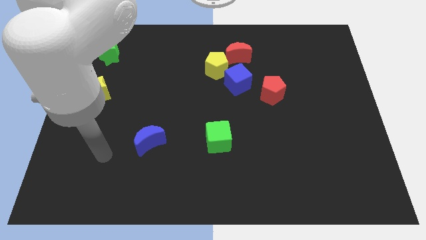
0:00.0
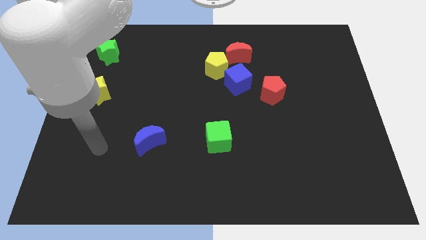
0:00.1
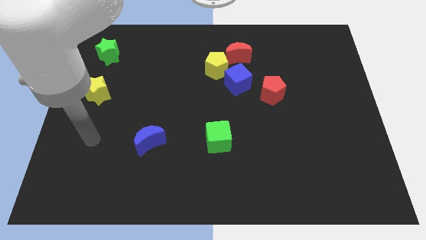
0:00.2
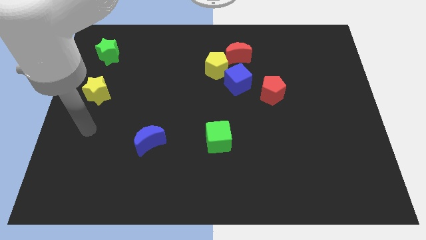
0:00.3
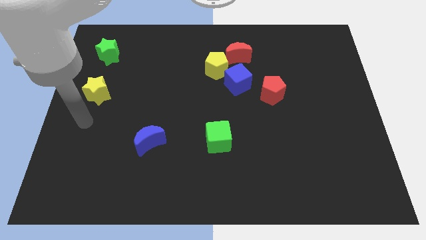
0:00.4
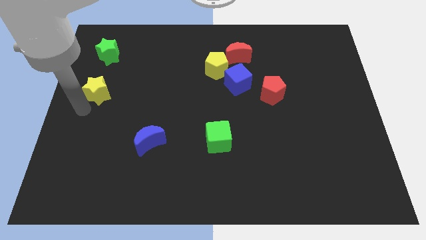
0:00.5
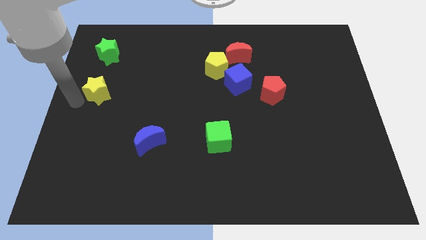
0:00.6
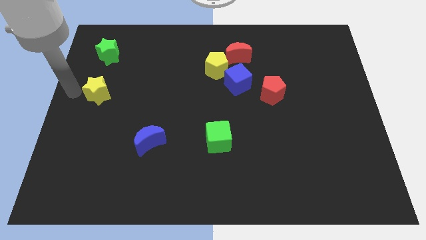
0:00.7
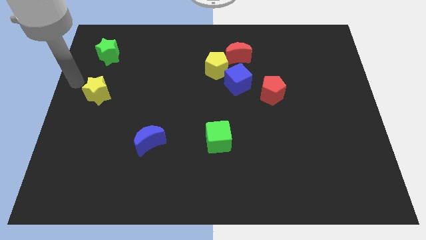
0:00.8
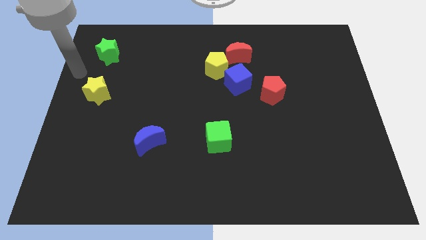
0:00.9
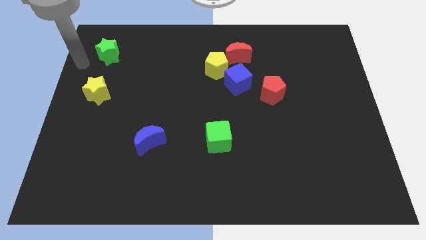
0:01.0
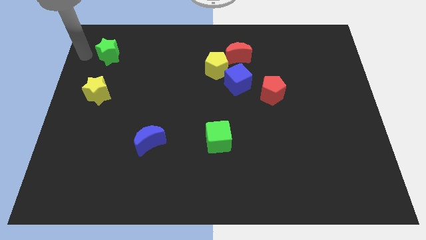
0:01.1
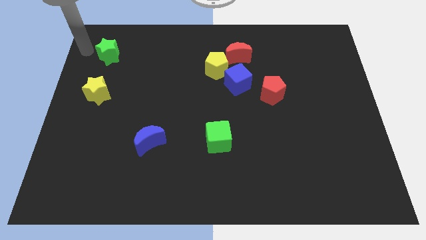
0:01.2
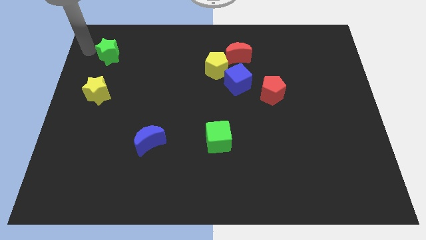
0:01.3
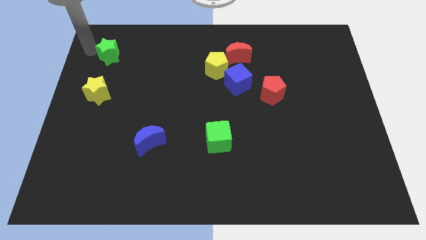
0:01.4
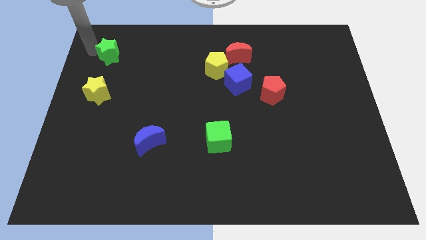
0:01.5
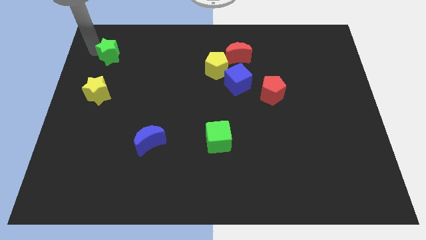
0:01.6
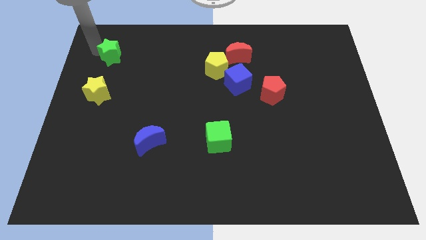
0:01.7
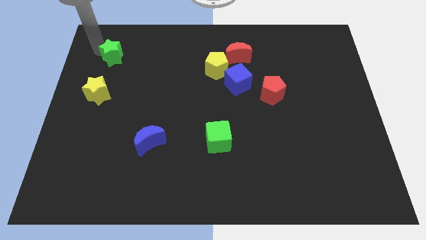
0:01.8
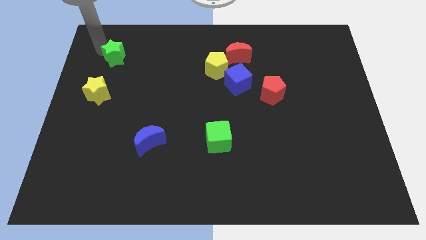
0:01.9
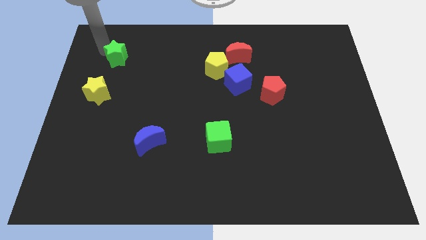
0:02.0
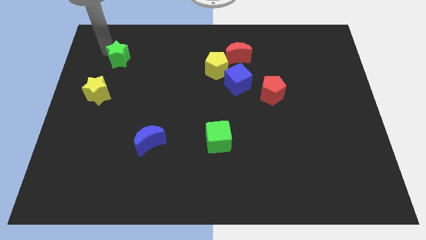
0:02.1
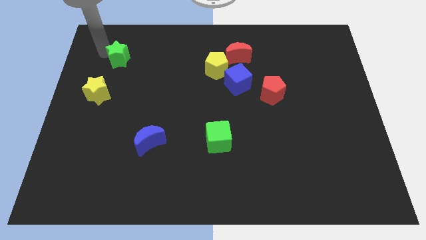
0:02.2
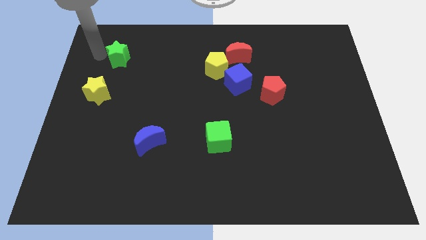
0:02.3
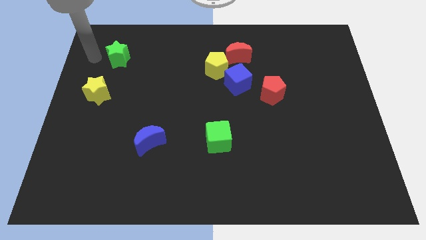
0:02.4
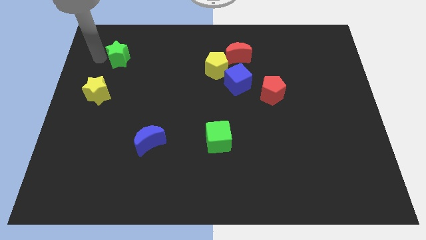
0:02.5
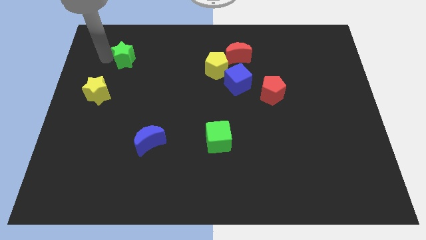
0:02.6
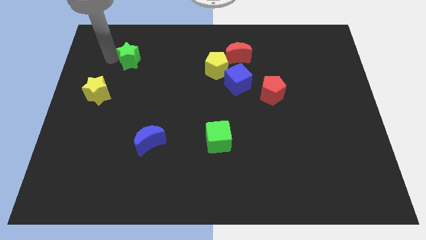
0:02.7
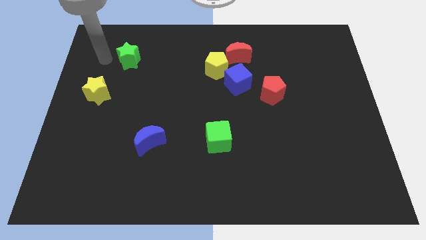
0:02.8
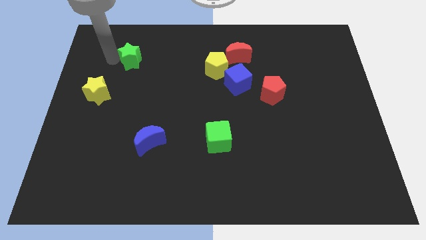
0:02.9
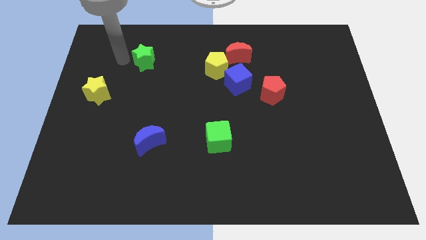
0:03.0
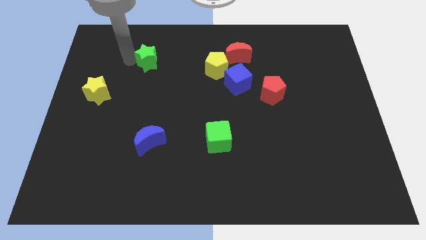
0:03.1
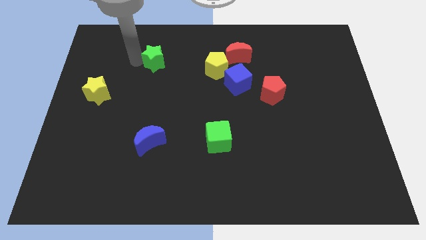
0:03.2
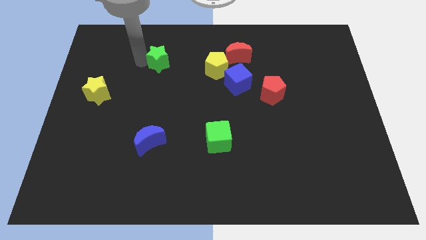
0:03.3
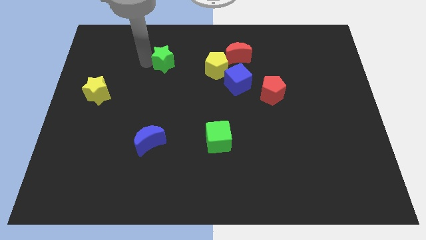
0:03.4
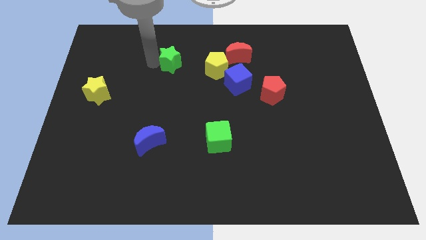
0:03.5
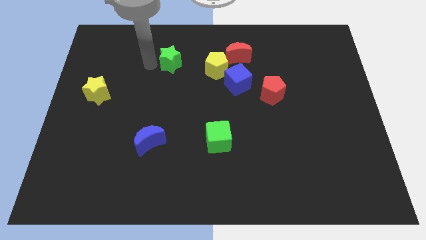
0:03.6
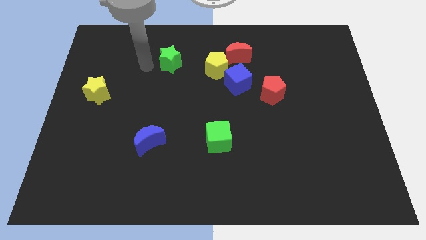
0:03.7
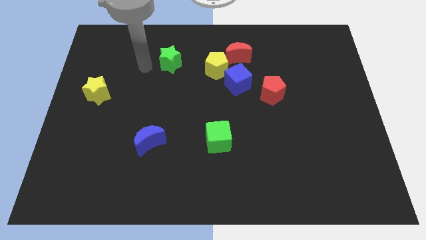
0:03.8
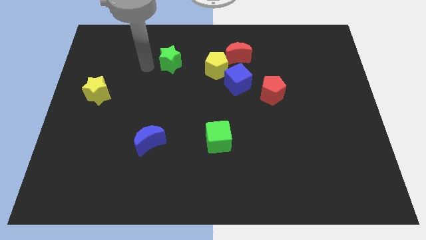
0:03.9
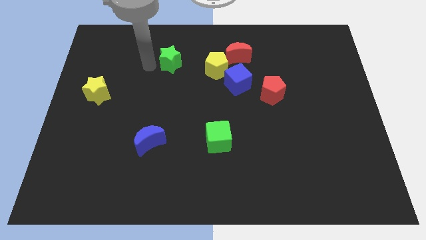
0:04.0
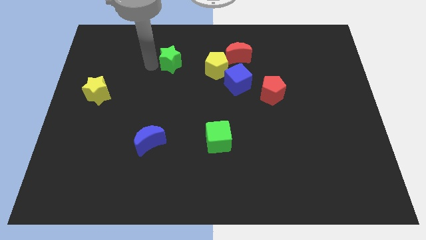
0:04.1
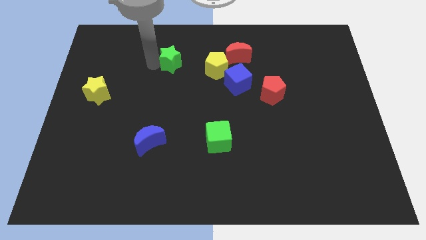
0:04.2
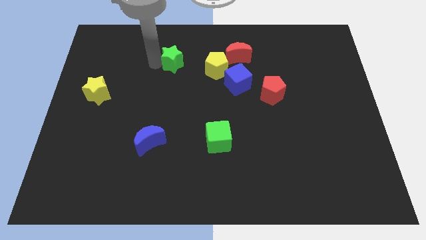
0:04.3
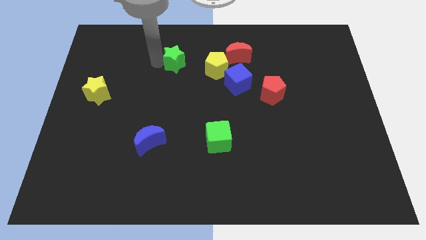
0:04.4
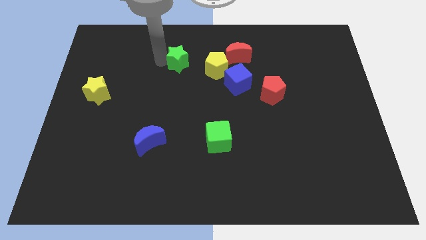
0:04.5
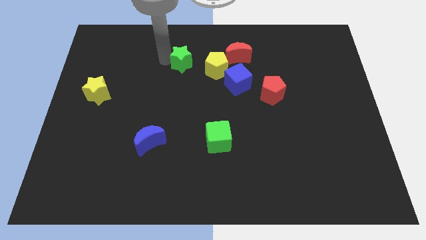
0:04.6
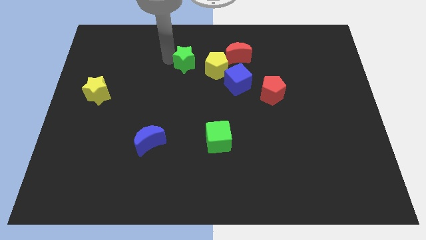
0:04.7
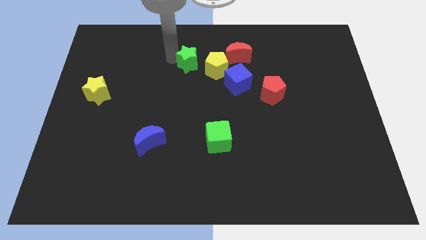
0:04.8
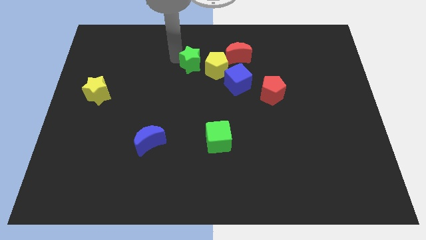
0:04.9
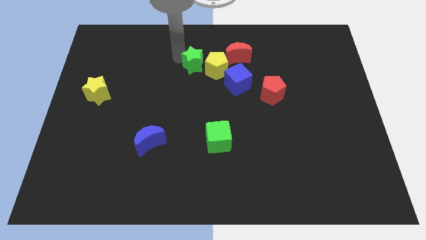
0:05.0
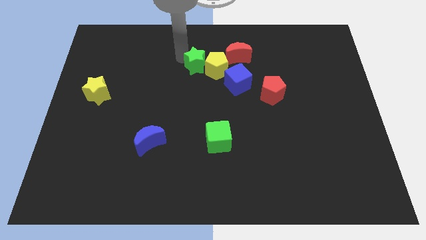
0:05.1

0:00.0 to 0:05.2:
slide the green star next to the yellow pentagon

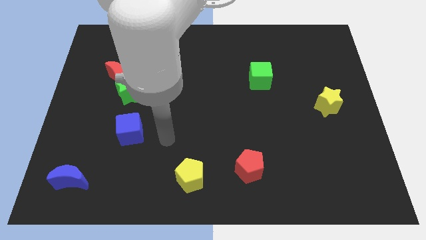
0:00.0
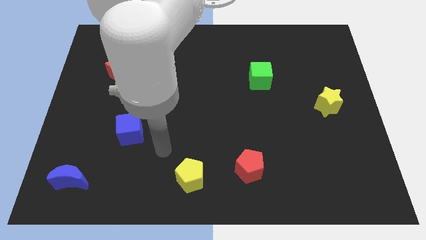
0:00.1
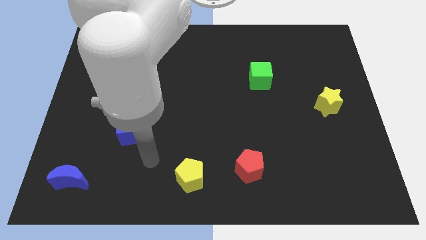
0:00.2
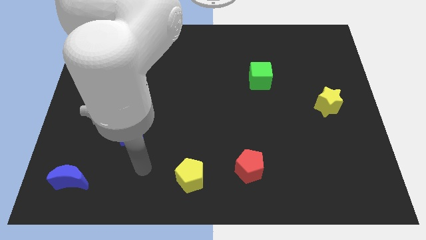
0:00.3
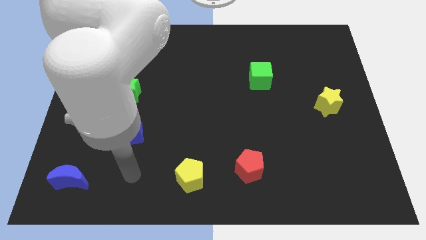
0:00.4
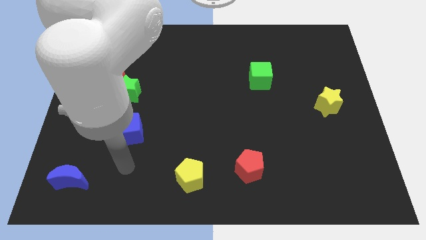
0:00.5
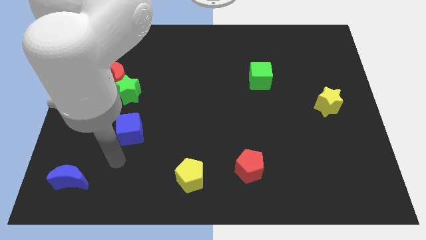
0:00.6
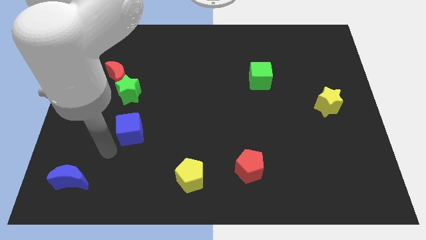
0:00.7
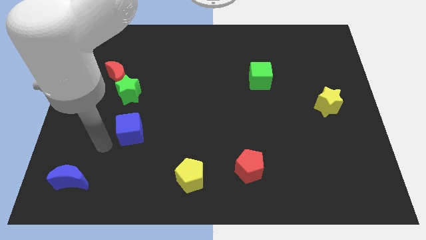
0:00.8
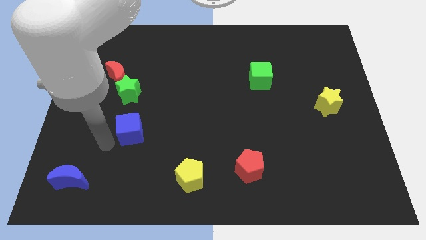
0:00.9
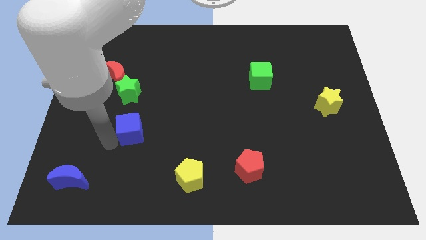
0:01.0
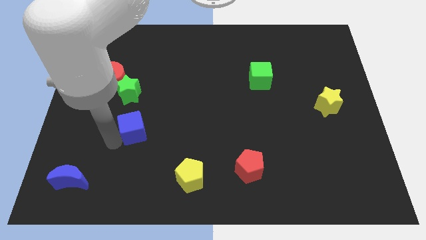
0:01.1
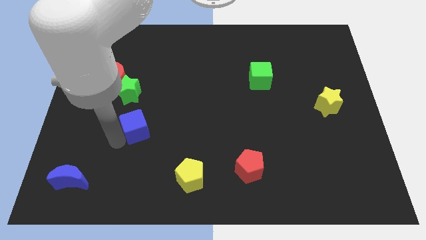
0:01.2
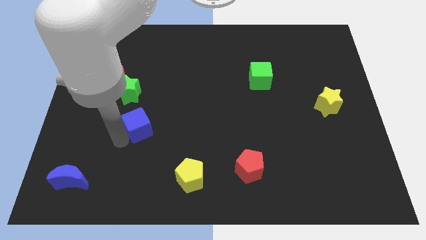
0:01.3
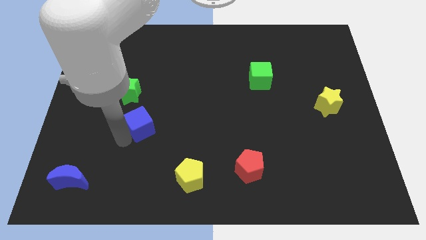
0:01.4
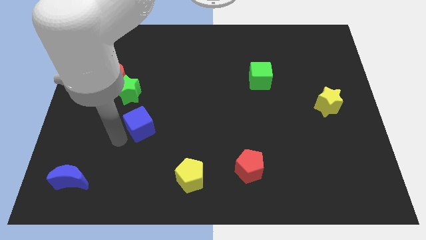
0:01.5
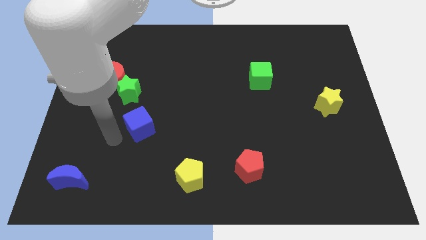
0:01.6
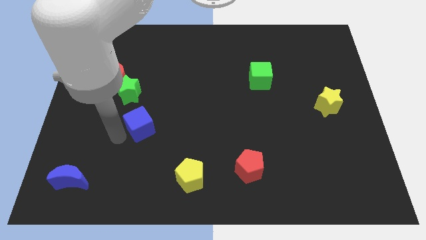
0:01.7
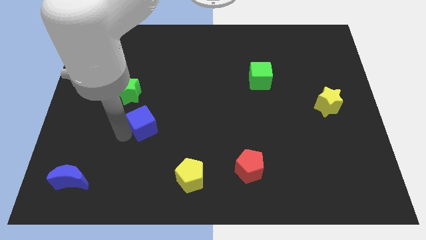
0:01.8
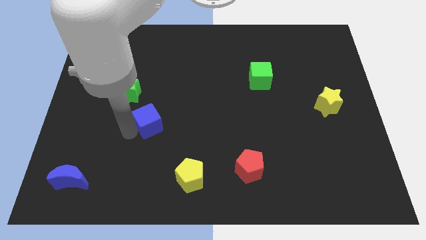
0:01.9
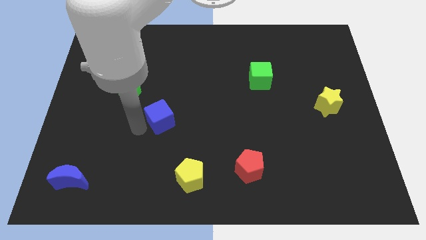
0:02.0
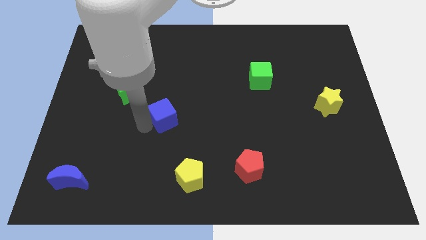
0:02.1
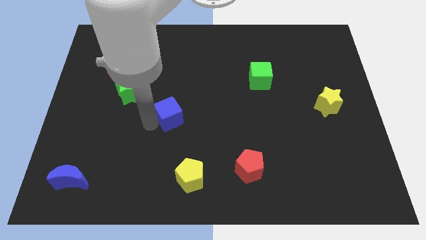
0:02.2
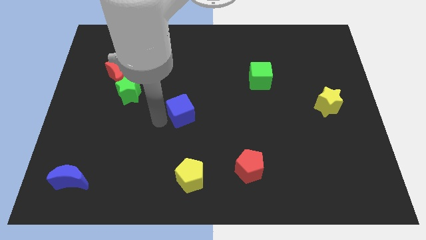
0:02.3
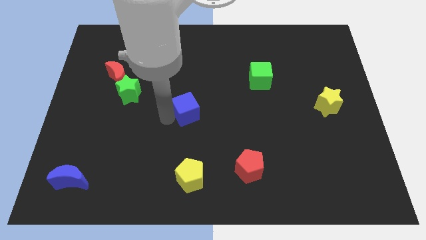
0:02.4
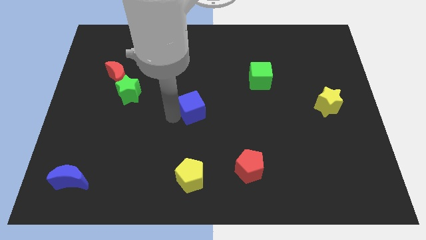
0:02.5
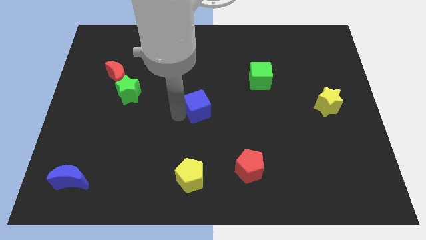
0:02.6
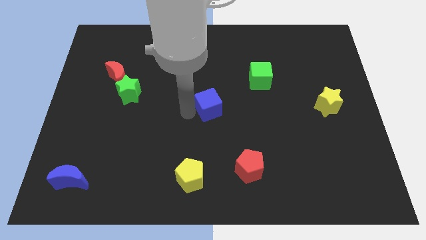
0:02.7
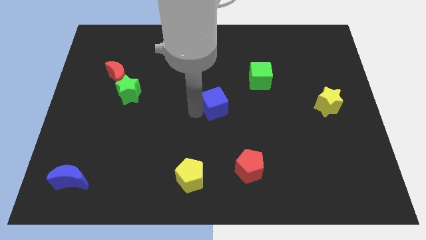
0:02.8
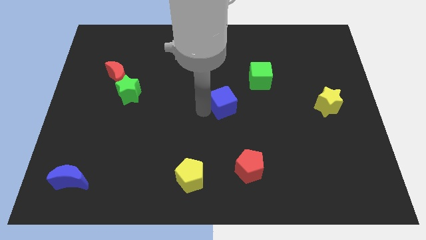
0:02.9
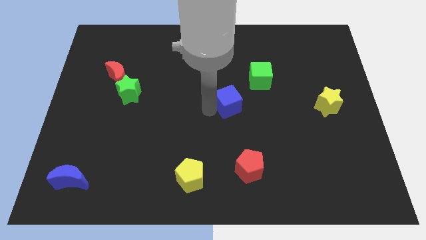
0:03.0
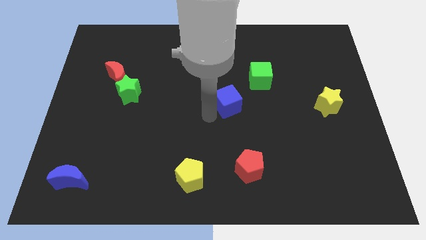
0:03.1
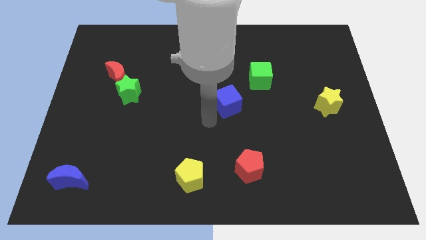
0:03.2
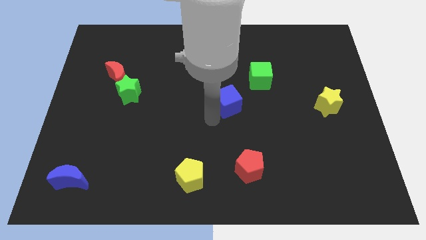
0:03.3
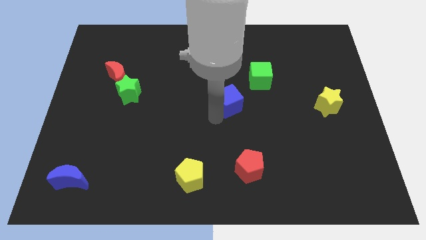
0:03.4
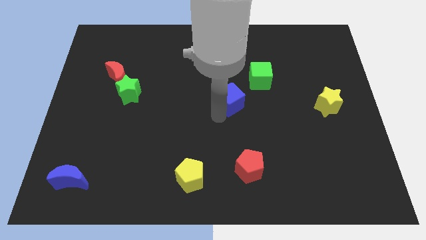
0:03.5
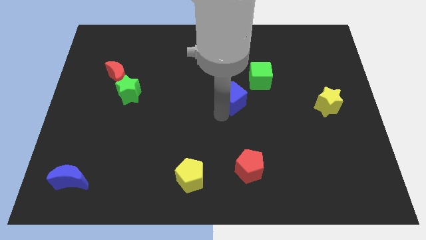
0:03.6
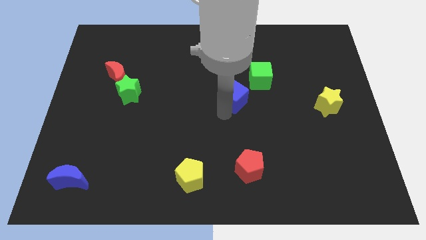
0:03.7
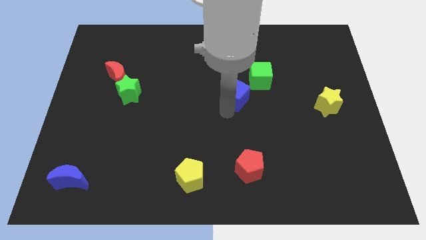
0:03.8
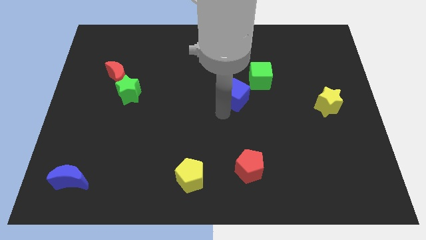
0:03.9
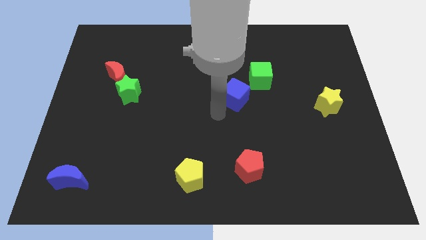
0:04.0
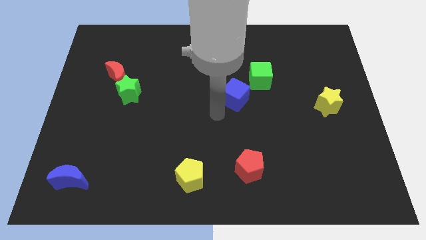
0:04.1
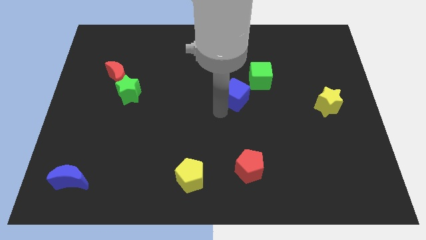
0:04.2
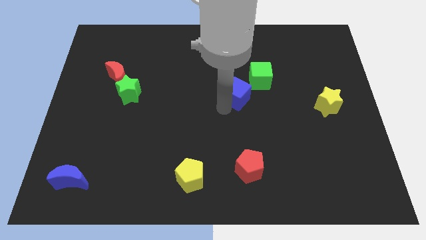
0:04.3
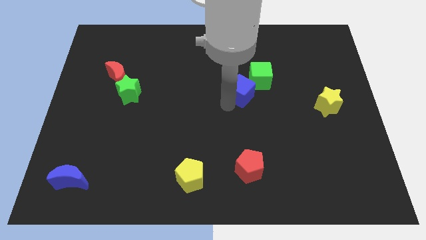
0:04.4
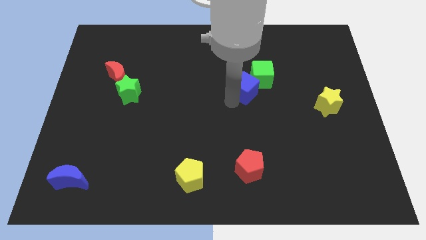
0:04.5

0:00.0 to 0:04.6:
move the blue cube to the green cube
